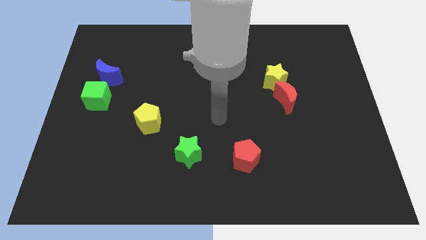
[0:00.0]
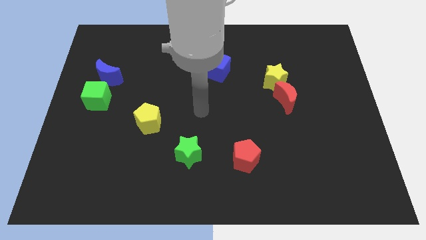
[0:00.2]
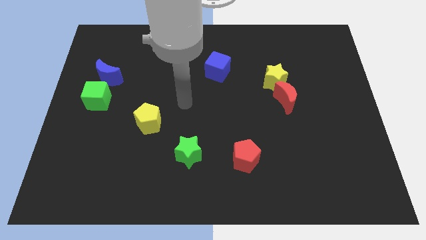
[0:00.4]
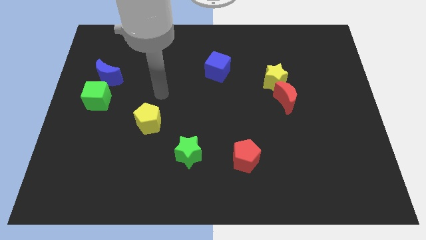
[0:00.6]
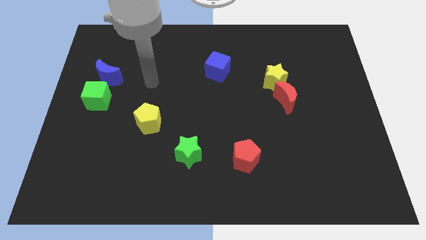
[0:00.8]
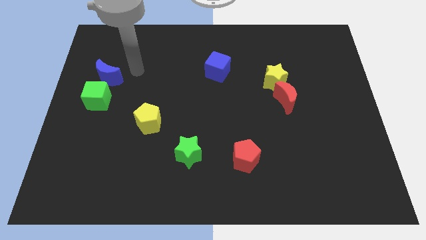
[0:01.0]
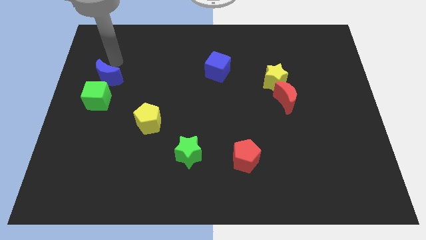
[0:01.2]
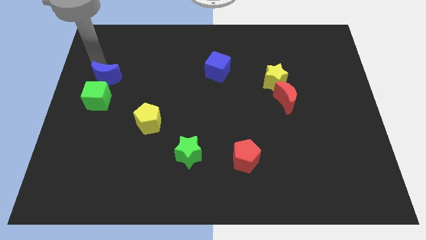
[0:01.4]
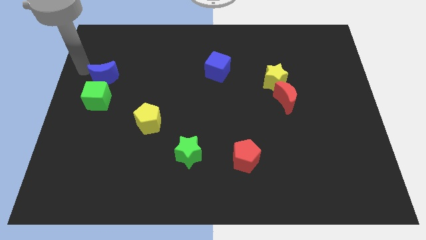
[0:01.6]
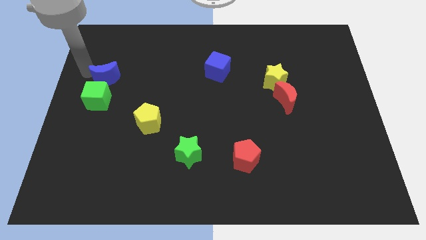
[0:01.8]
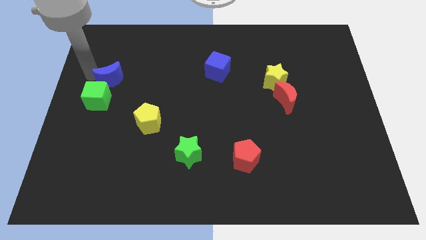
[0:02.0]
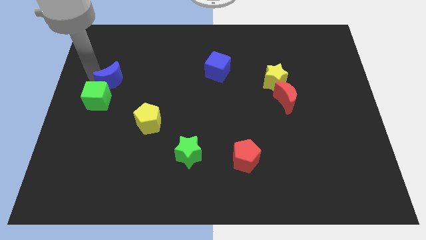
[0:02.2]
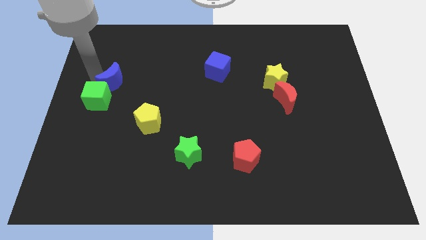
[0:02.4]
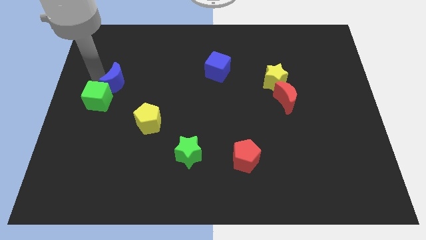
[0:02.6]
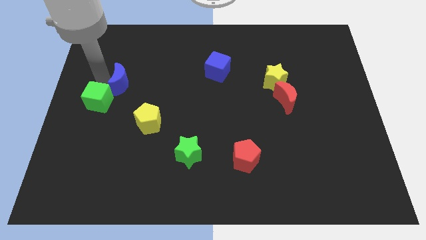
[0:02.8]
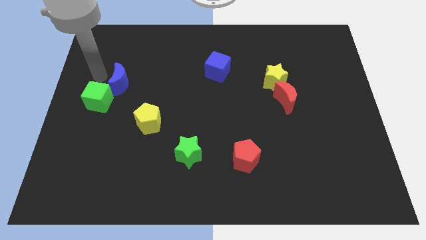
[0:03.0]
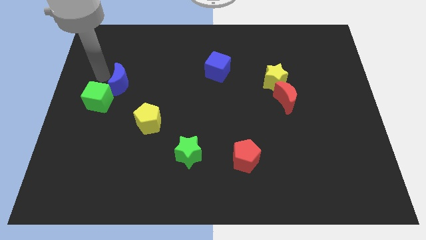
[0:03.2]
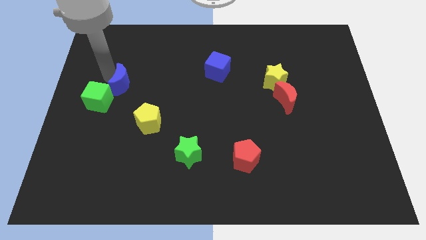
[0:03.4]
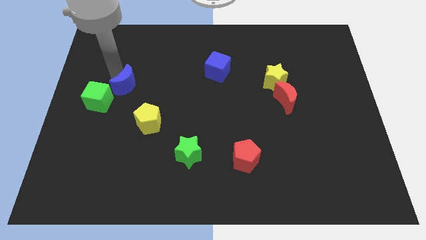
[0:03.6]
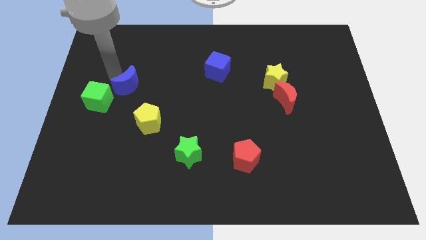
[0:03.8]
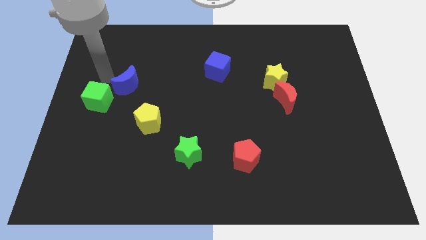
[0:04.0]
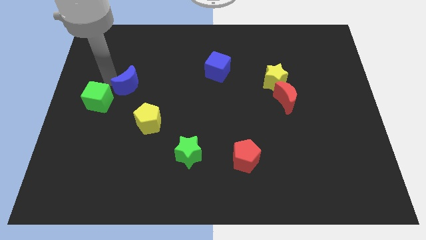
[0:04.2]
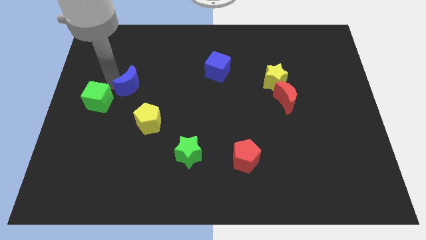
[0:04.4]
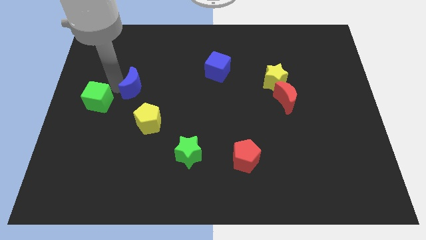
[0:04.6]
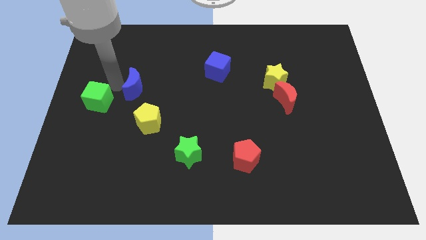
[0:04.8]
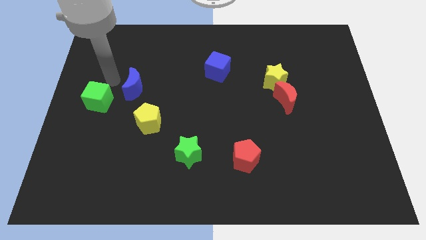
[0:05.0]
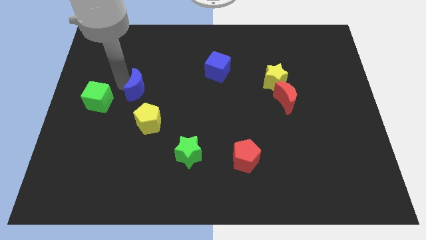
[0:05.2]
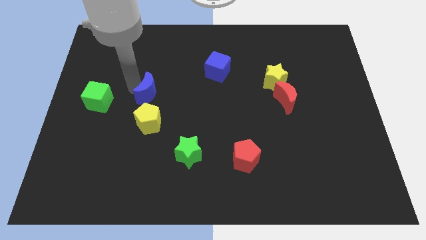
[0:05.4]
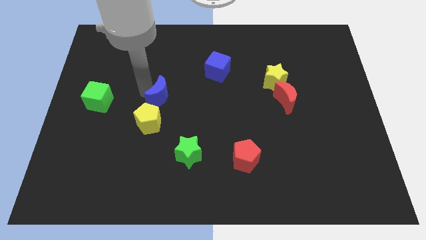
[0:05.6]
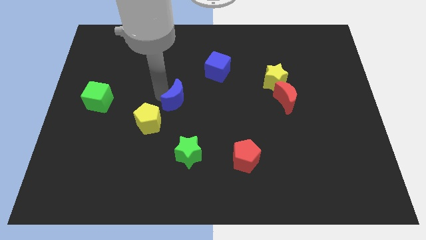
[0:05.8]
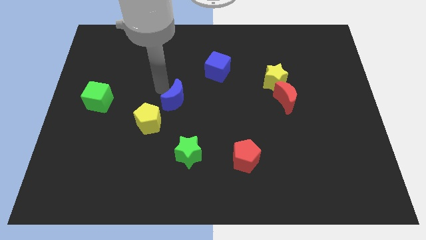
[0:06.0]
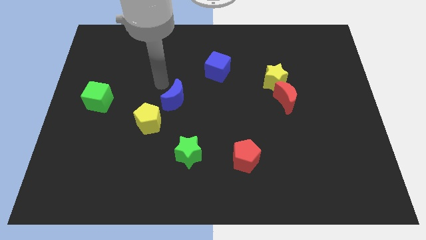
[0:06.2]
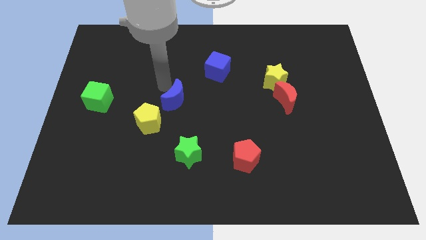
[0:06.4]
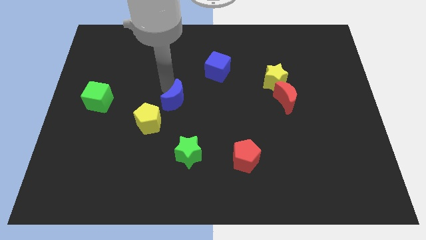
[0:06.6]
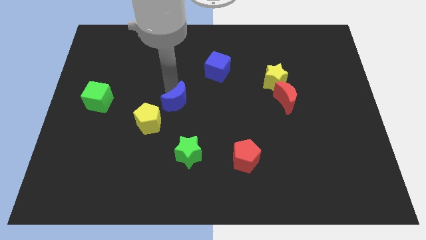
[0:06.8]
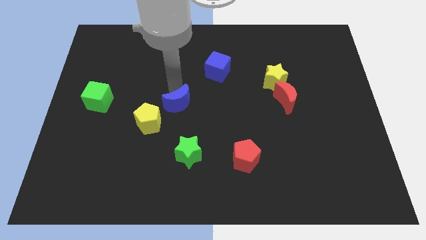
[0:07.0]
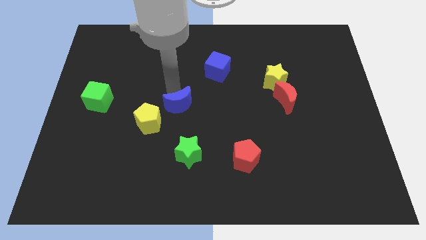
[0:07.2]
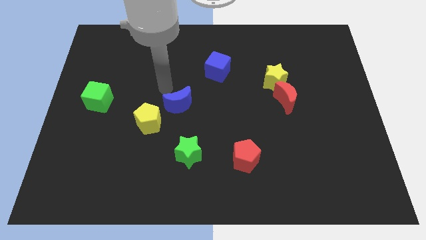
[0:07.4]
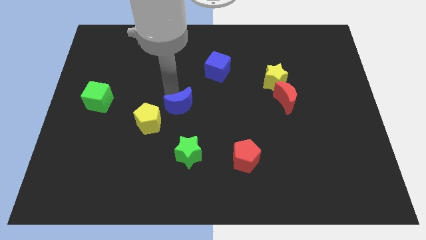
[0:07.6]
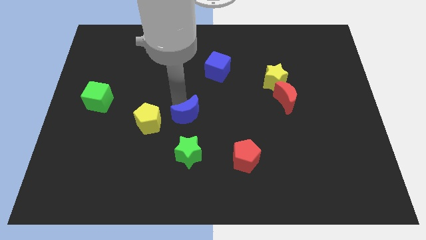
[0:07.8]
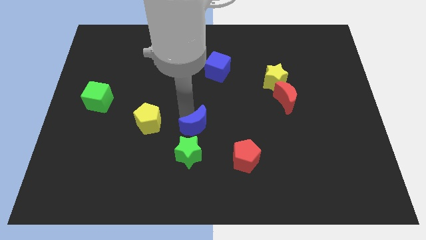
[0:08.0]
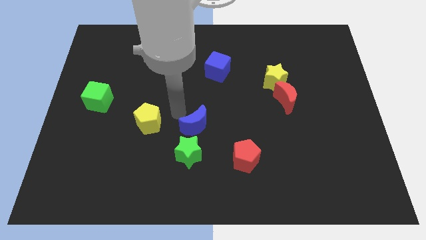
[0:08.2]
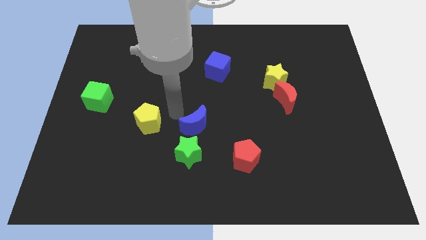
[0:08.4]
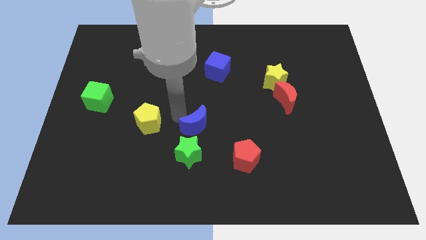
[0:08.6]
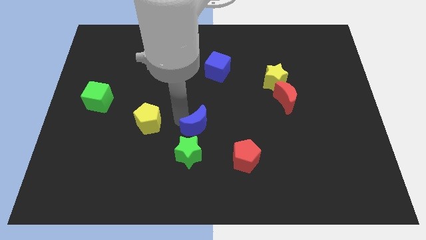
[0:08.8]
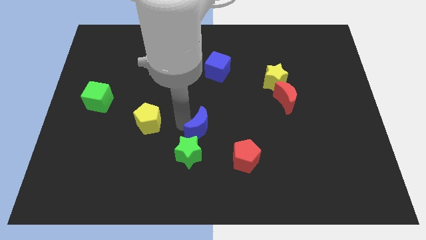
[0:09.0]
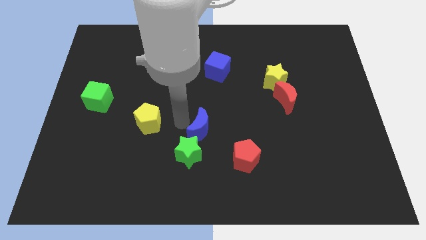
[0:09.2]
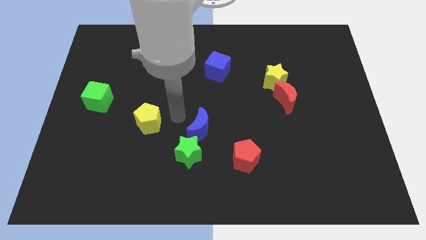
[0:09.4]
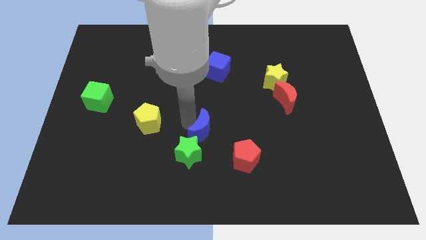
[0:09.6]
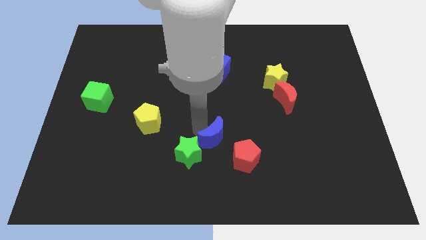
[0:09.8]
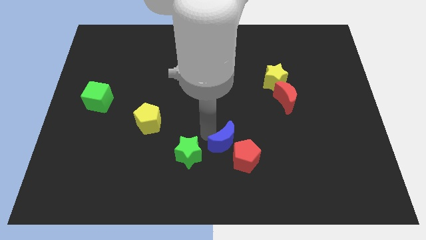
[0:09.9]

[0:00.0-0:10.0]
push the blue moon next to the red pentagon

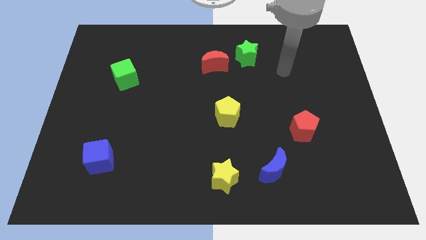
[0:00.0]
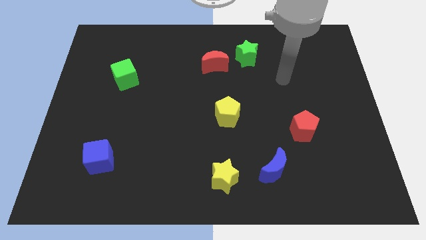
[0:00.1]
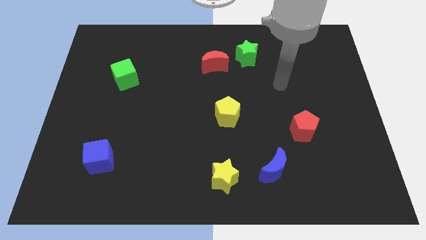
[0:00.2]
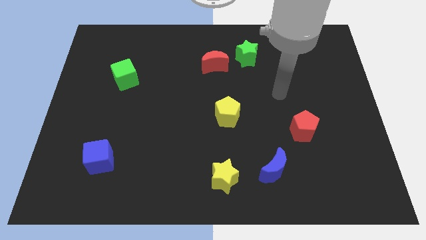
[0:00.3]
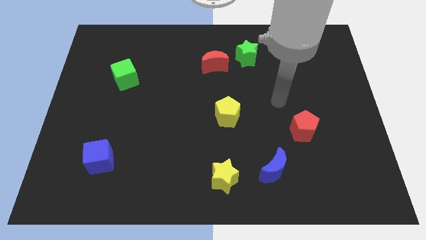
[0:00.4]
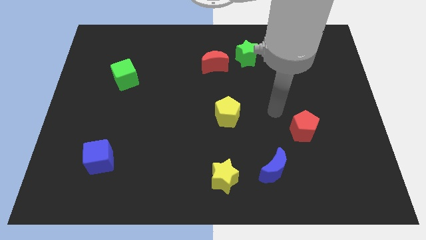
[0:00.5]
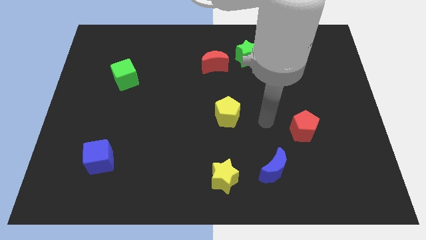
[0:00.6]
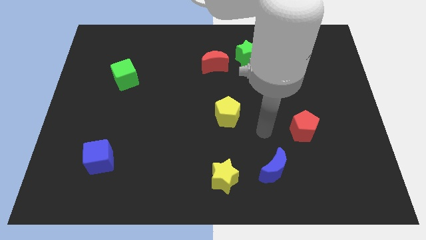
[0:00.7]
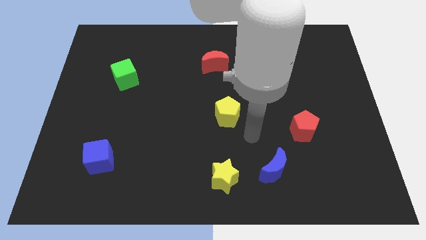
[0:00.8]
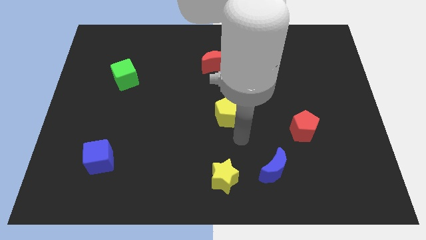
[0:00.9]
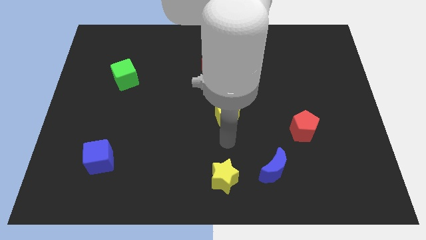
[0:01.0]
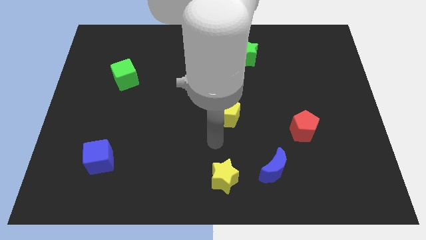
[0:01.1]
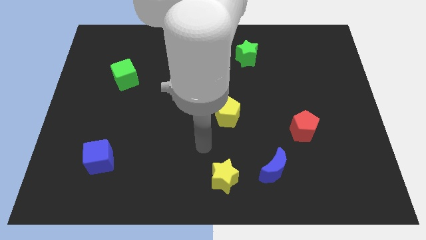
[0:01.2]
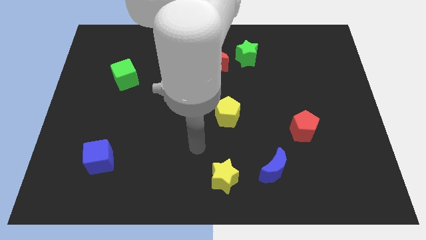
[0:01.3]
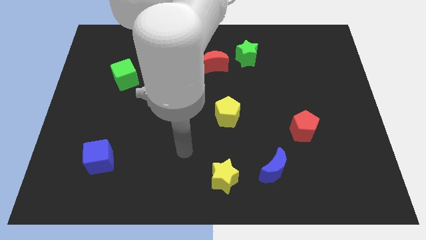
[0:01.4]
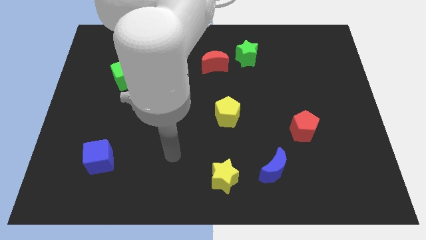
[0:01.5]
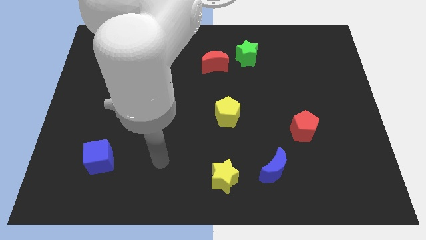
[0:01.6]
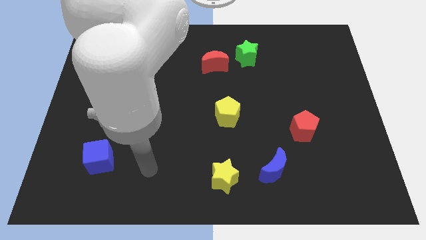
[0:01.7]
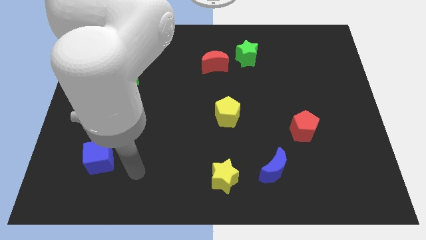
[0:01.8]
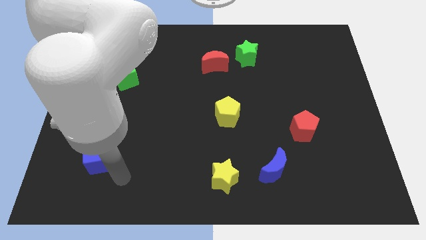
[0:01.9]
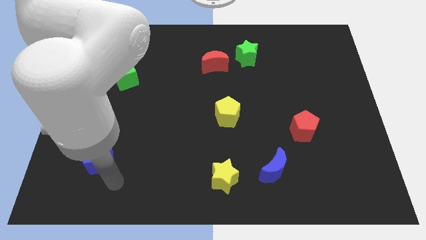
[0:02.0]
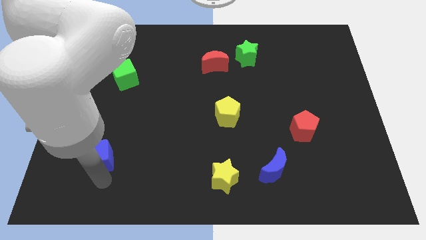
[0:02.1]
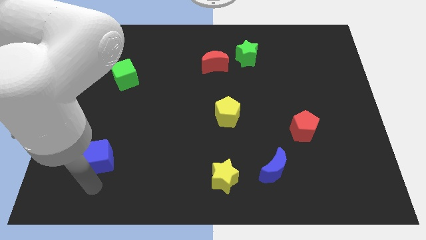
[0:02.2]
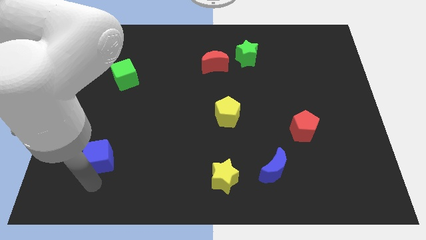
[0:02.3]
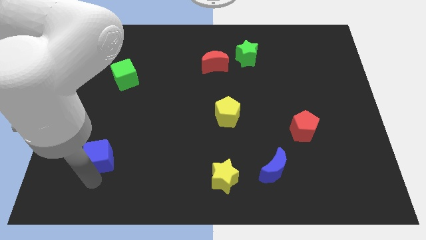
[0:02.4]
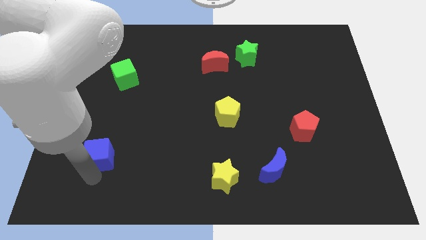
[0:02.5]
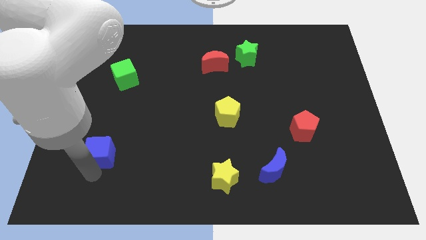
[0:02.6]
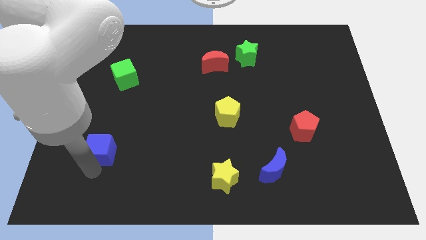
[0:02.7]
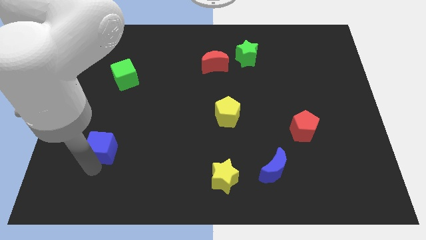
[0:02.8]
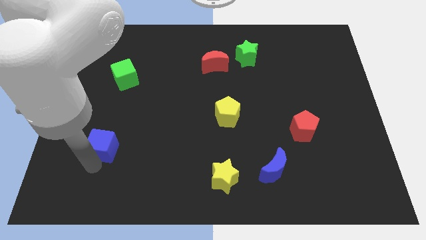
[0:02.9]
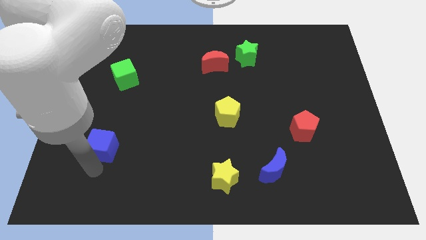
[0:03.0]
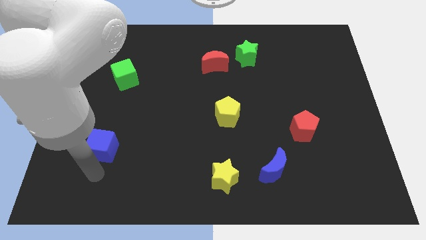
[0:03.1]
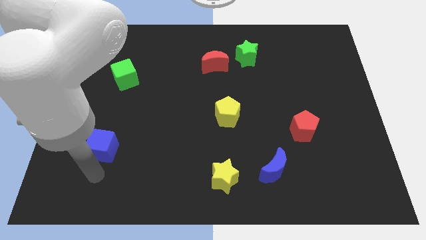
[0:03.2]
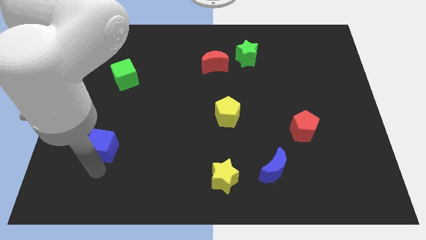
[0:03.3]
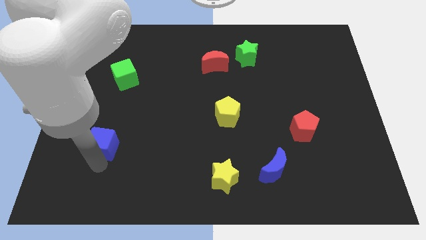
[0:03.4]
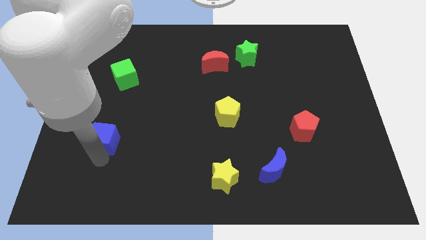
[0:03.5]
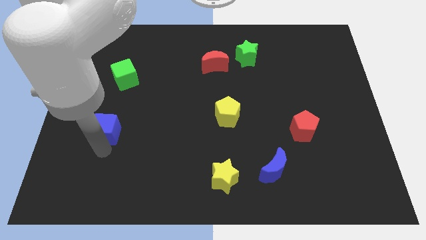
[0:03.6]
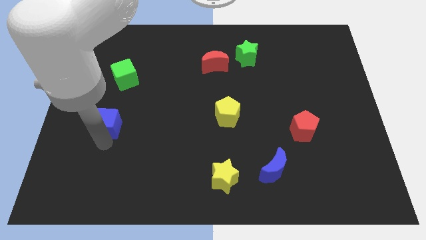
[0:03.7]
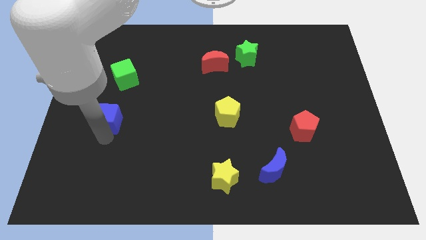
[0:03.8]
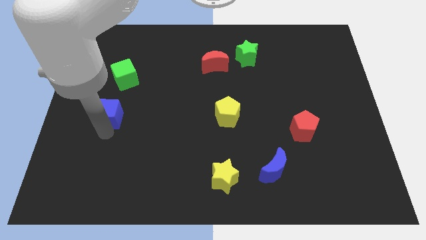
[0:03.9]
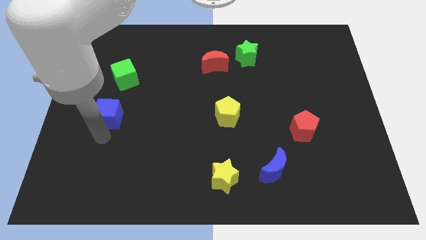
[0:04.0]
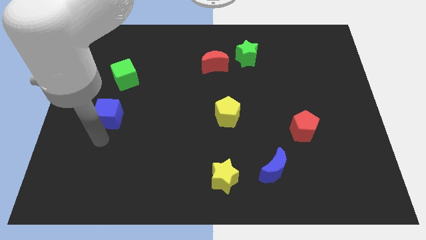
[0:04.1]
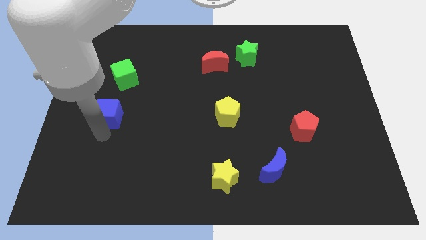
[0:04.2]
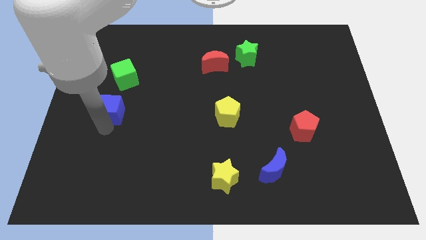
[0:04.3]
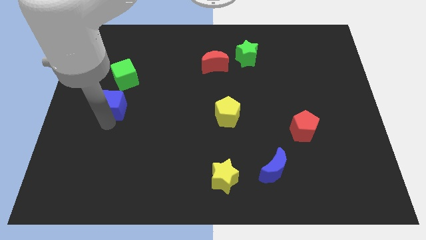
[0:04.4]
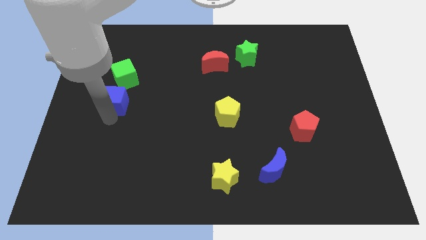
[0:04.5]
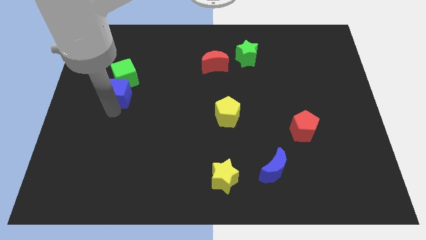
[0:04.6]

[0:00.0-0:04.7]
slide the blue cube towards the green cube
